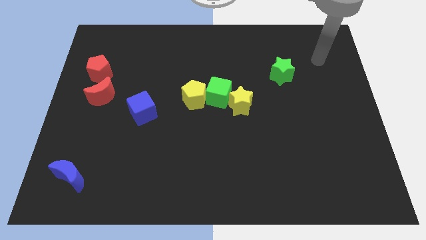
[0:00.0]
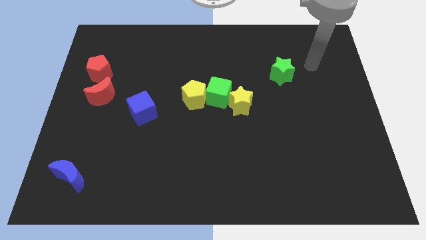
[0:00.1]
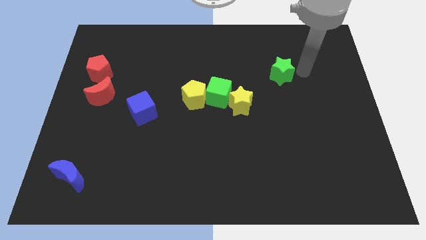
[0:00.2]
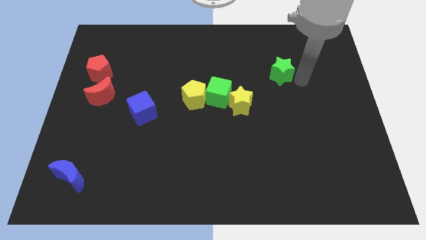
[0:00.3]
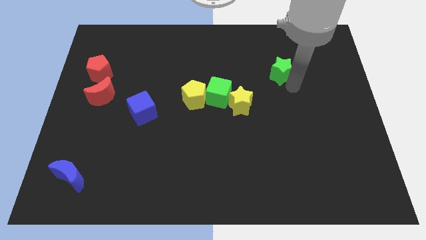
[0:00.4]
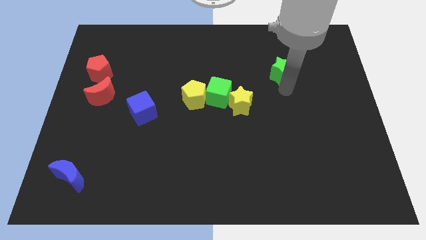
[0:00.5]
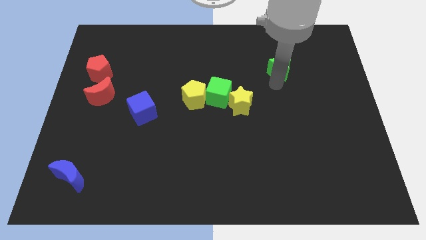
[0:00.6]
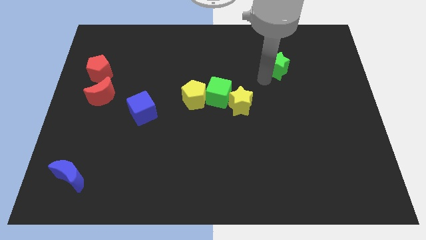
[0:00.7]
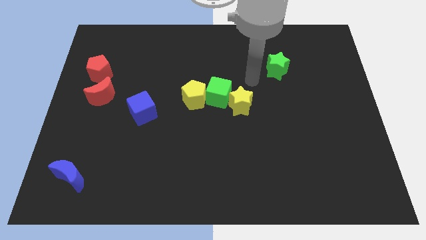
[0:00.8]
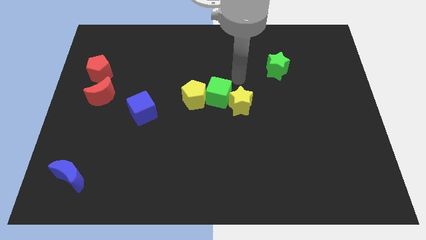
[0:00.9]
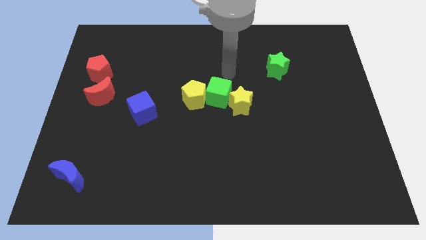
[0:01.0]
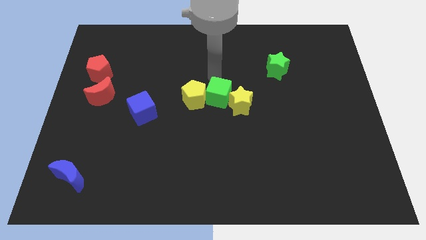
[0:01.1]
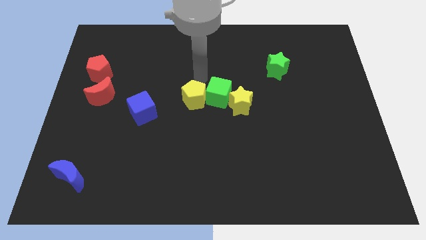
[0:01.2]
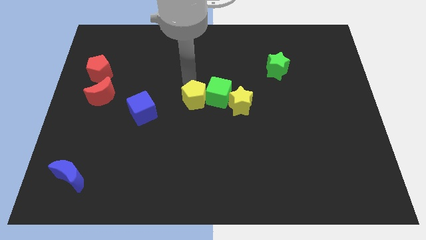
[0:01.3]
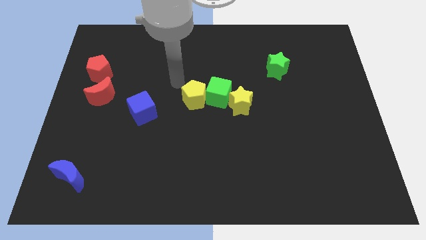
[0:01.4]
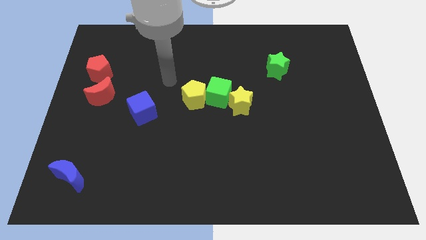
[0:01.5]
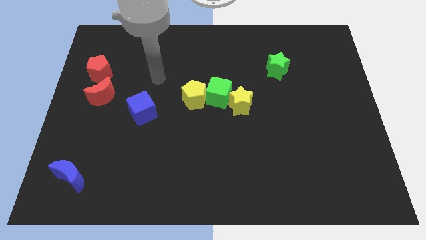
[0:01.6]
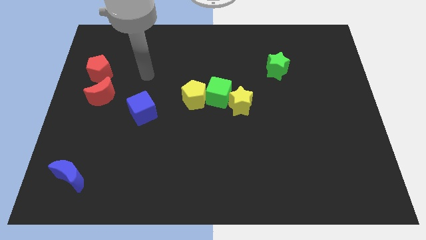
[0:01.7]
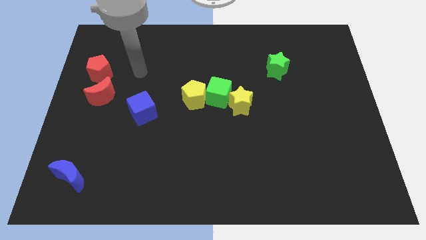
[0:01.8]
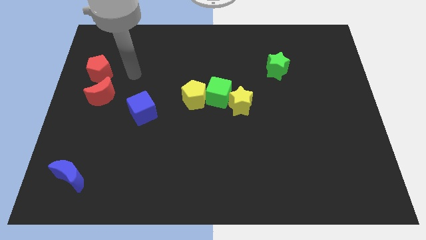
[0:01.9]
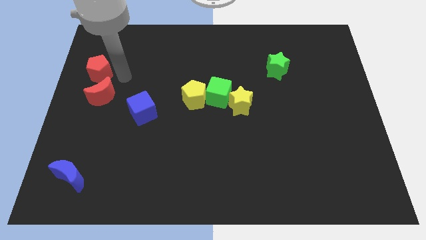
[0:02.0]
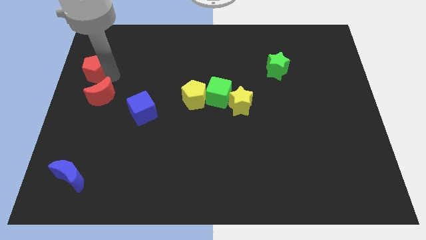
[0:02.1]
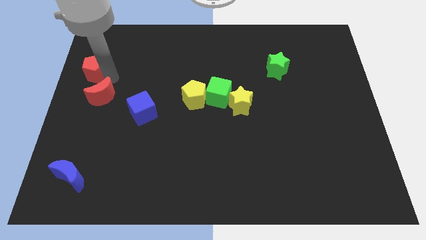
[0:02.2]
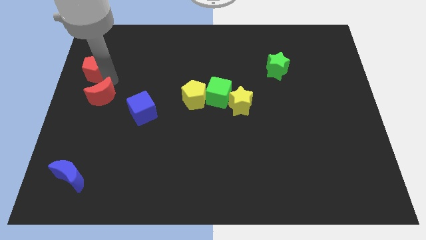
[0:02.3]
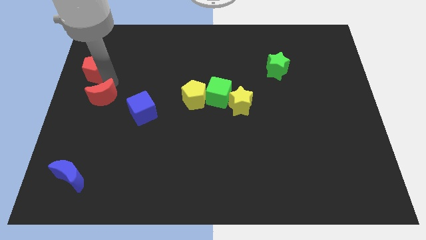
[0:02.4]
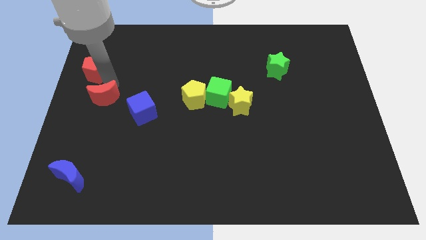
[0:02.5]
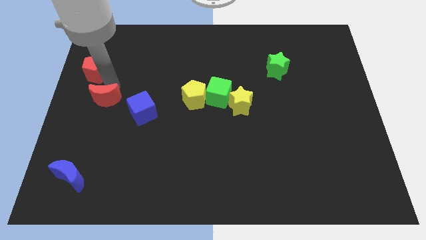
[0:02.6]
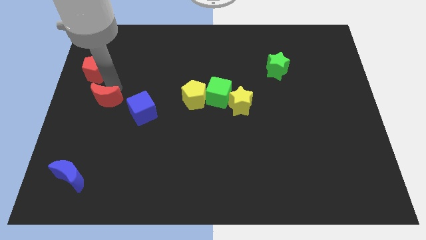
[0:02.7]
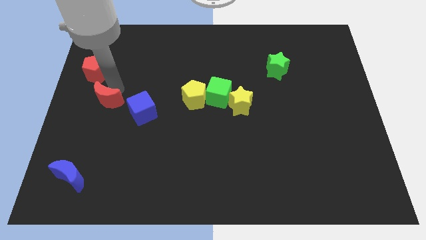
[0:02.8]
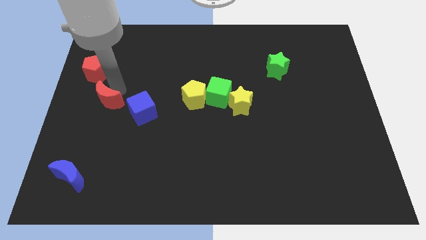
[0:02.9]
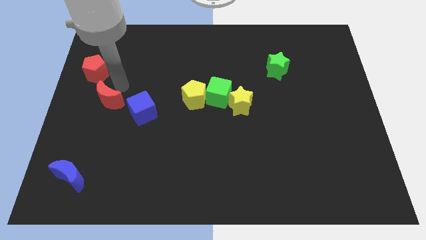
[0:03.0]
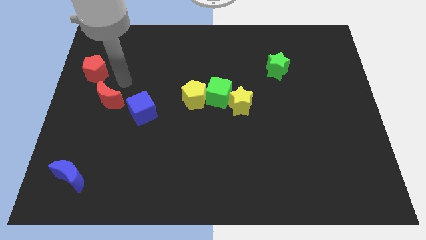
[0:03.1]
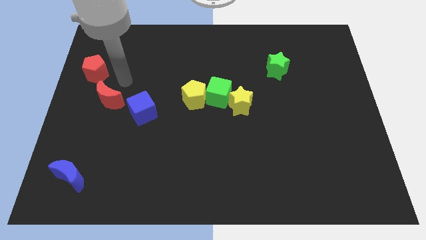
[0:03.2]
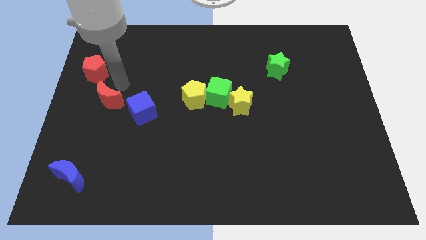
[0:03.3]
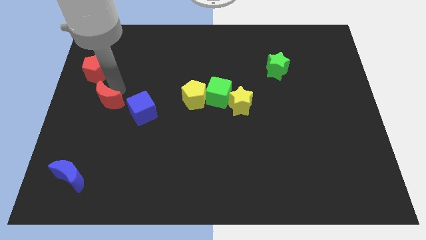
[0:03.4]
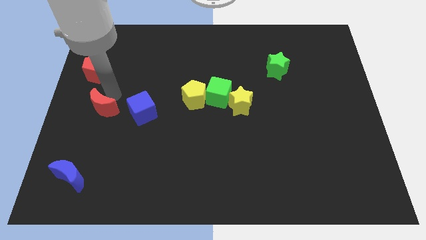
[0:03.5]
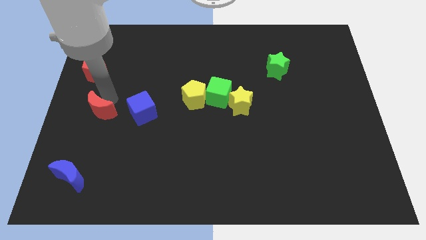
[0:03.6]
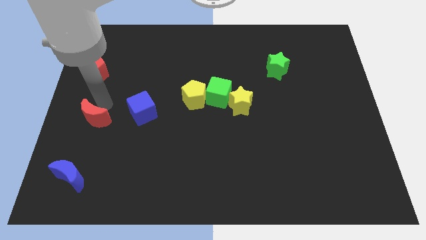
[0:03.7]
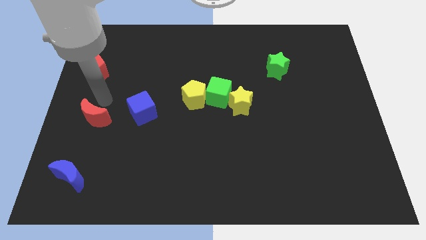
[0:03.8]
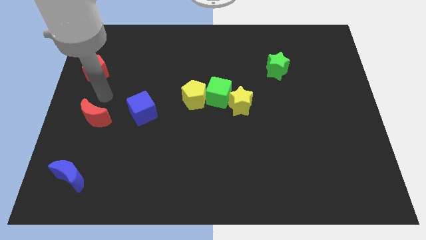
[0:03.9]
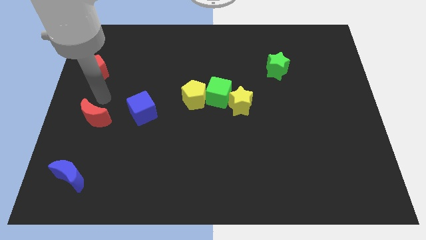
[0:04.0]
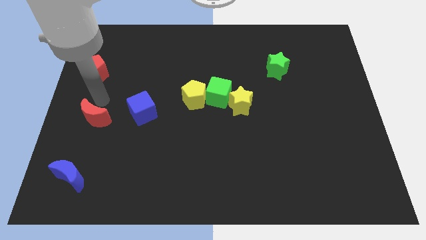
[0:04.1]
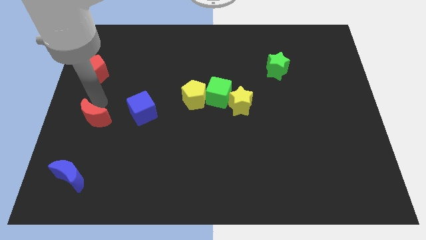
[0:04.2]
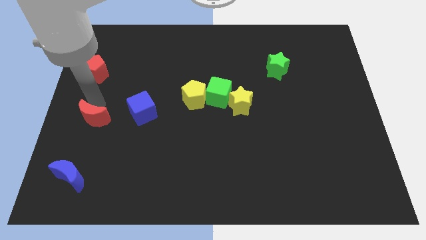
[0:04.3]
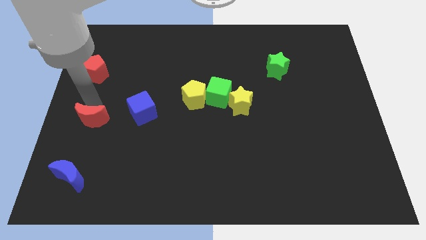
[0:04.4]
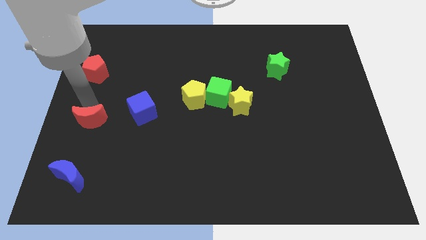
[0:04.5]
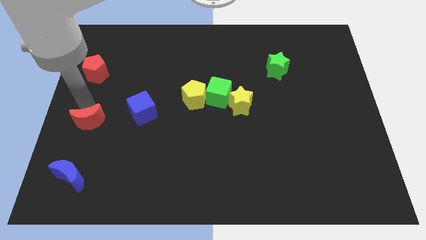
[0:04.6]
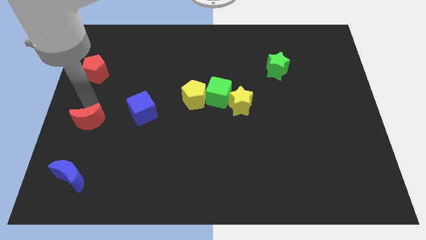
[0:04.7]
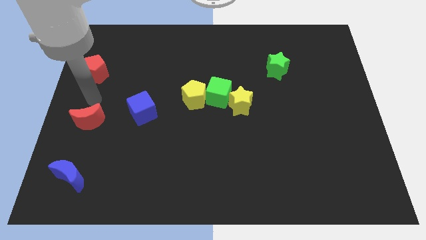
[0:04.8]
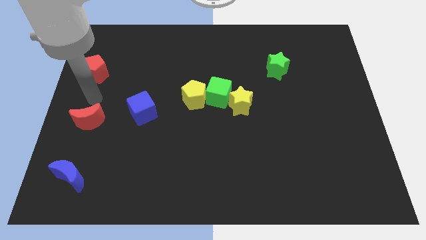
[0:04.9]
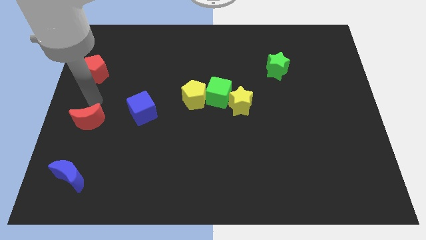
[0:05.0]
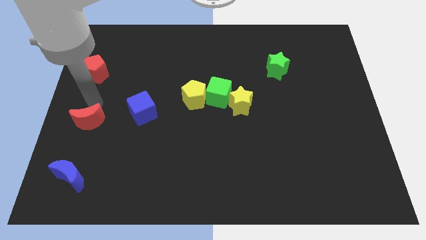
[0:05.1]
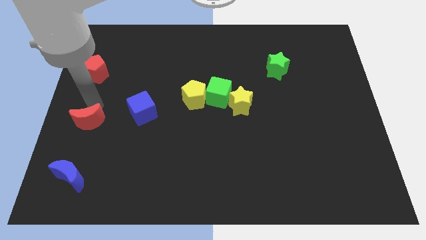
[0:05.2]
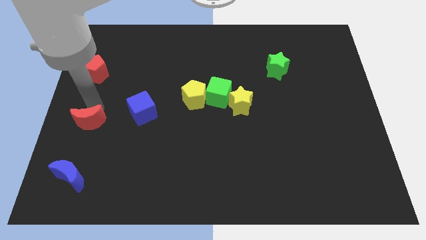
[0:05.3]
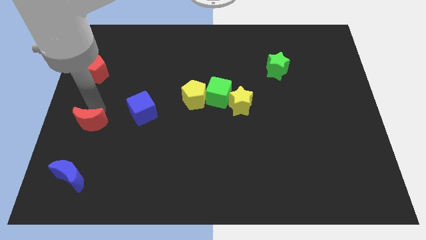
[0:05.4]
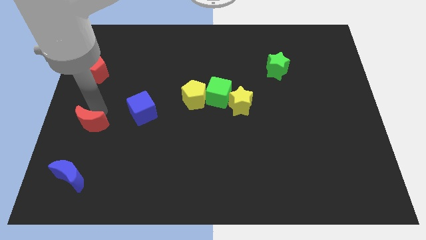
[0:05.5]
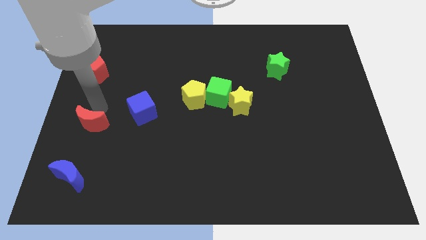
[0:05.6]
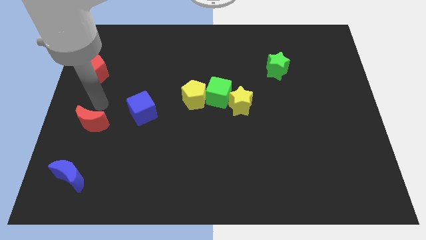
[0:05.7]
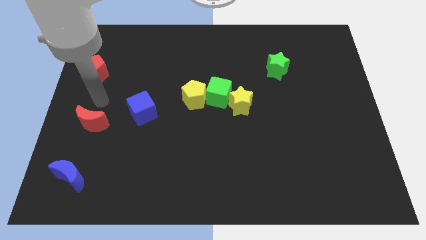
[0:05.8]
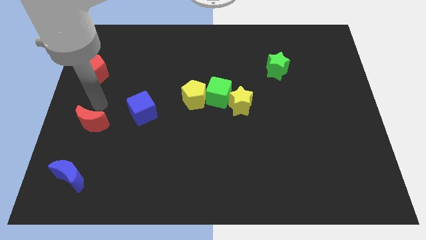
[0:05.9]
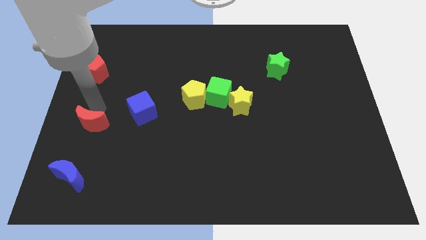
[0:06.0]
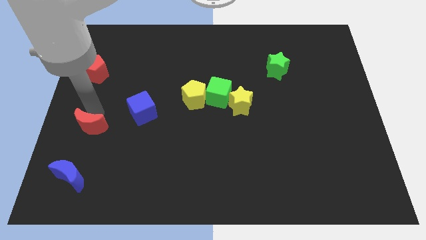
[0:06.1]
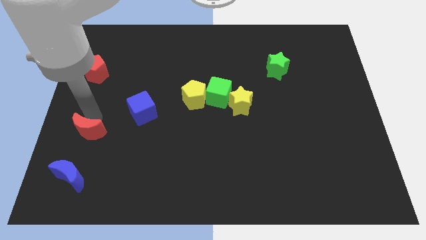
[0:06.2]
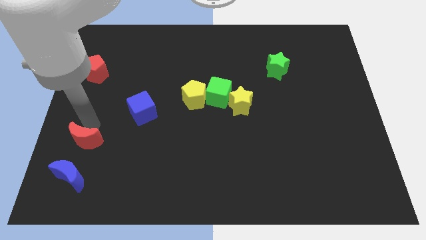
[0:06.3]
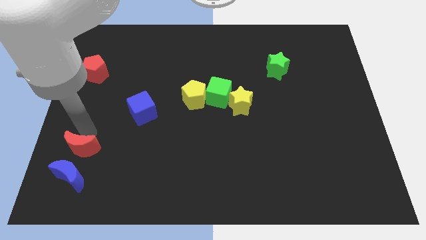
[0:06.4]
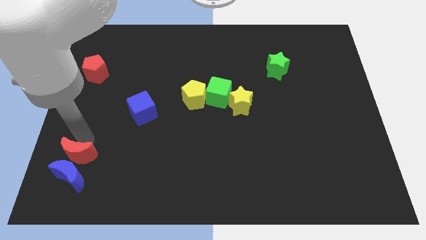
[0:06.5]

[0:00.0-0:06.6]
move the red moon to the blue moon

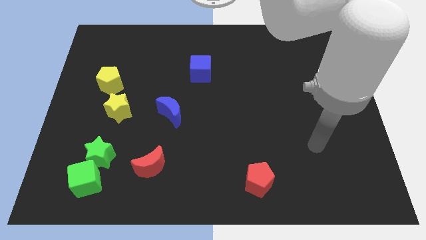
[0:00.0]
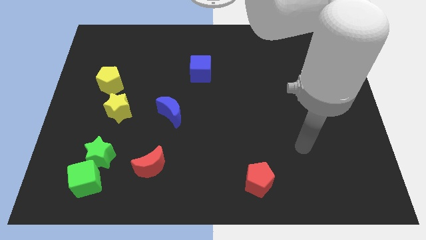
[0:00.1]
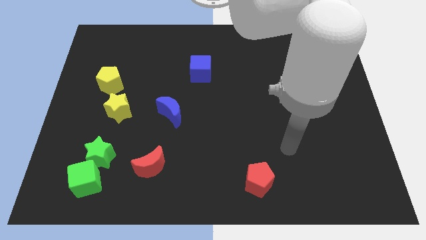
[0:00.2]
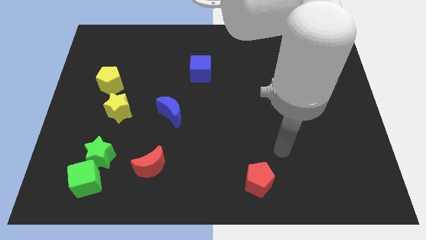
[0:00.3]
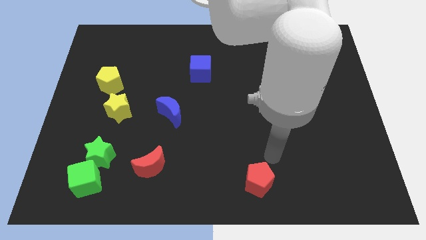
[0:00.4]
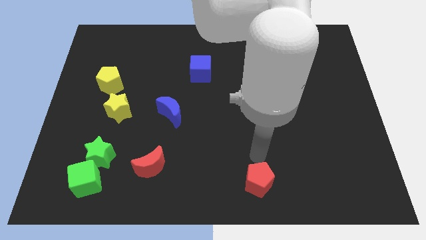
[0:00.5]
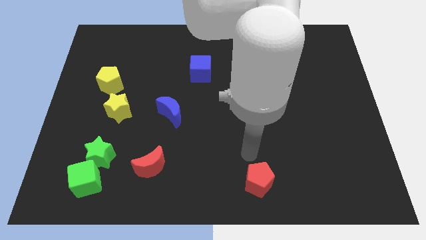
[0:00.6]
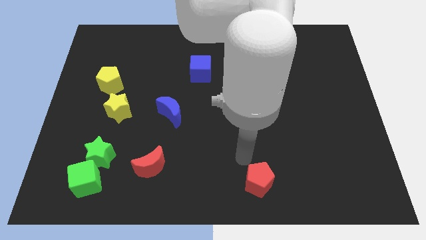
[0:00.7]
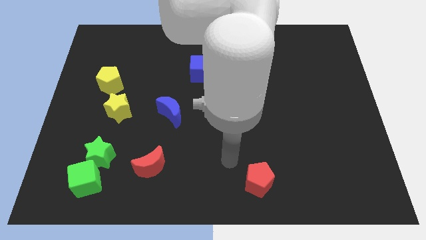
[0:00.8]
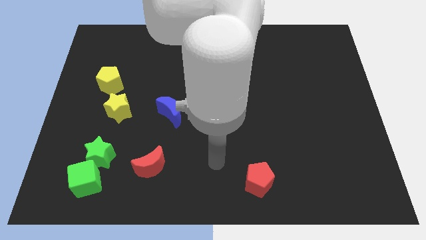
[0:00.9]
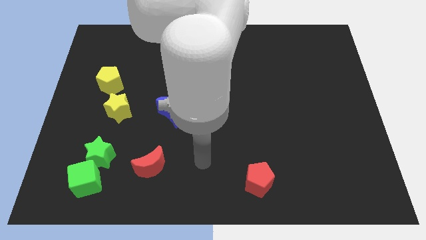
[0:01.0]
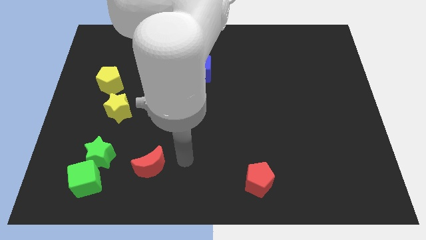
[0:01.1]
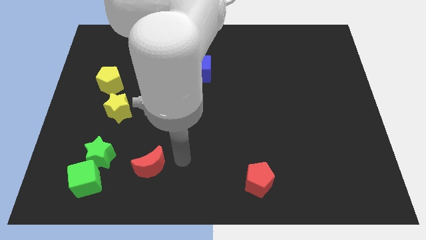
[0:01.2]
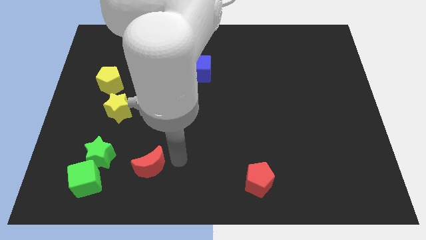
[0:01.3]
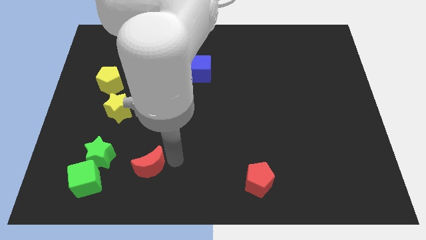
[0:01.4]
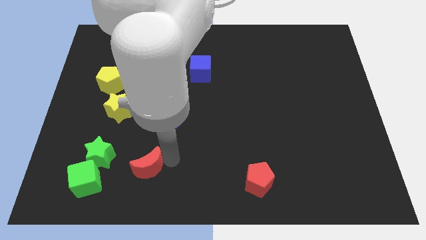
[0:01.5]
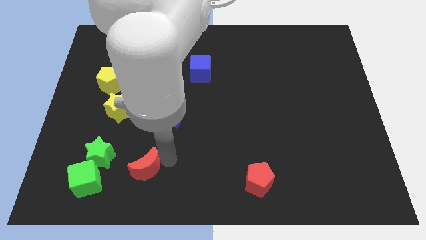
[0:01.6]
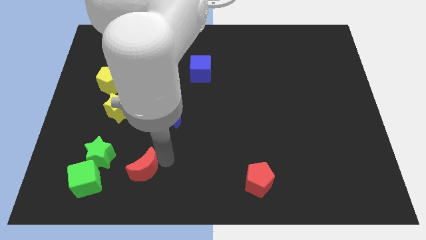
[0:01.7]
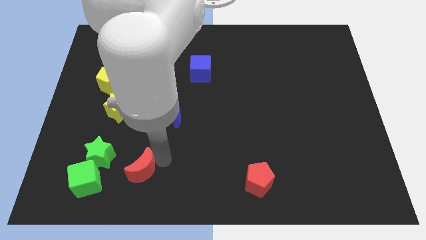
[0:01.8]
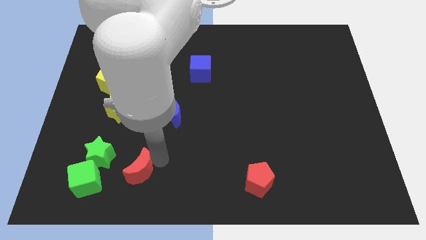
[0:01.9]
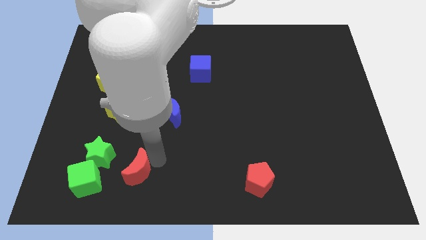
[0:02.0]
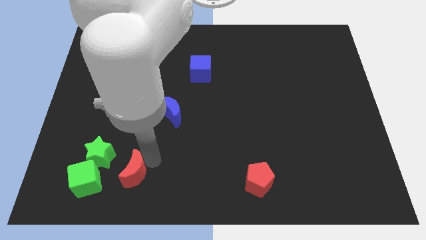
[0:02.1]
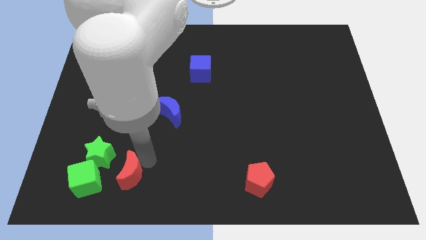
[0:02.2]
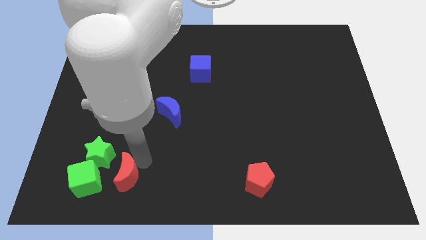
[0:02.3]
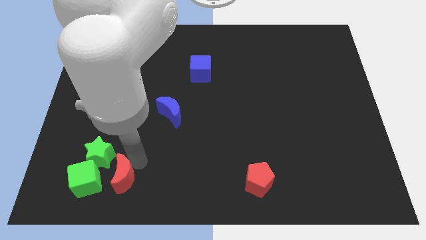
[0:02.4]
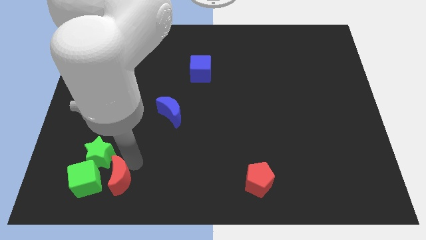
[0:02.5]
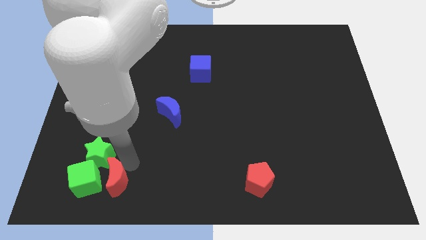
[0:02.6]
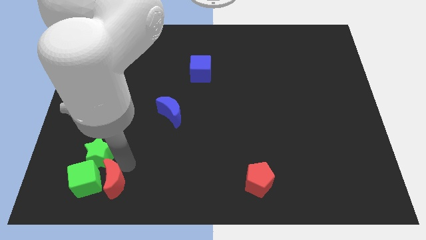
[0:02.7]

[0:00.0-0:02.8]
push the red moon towards the green cube
